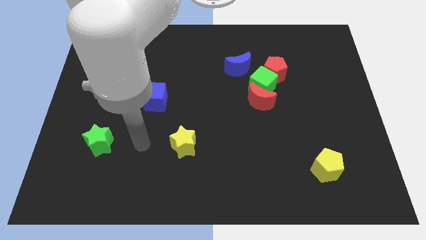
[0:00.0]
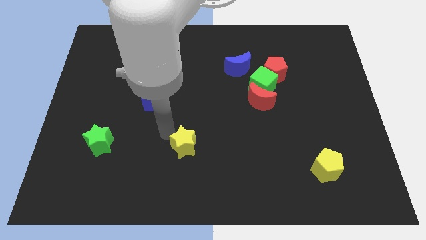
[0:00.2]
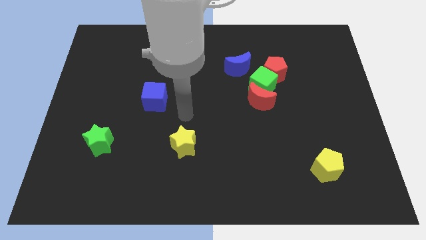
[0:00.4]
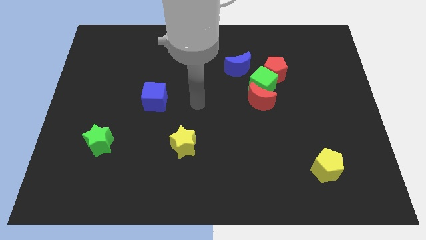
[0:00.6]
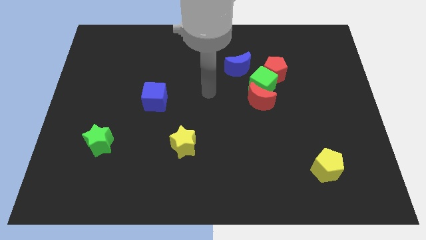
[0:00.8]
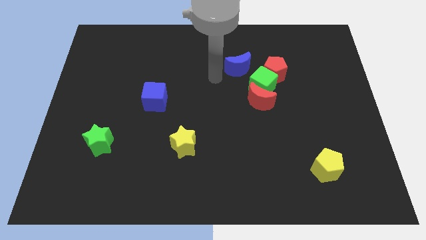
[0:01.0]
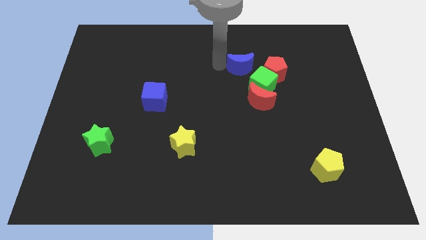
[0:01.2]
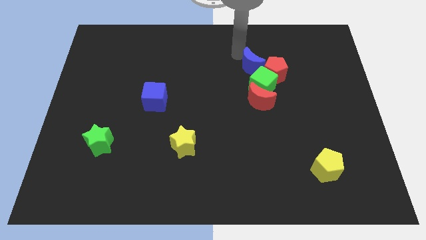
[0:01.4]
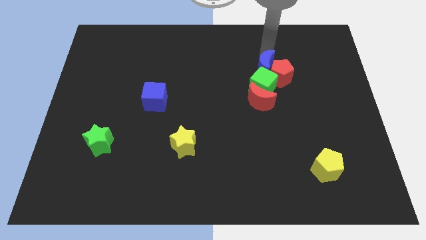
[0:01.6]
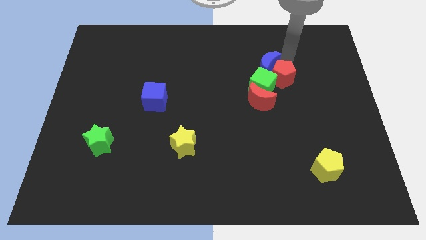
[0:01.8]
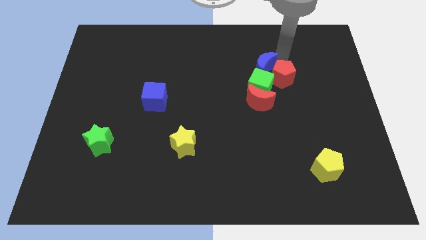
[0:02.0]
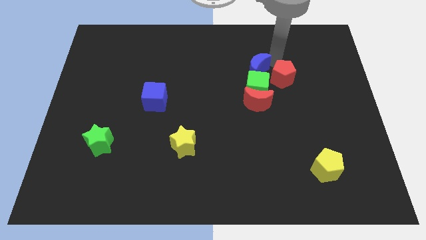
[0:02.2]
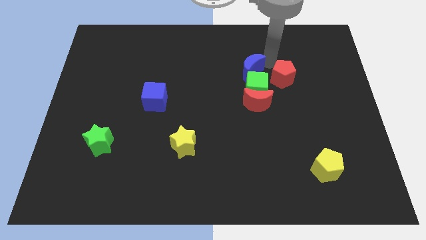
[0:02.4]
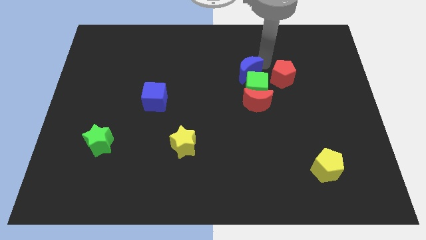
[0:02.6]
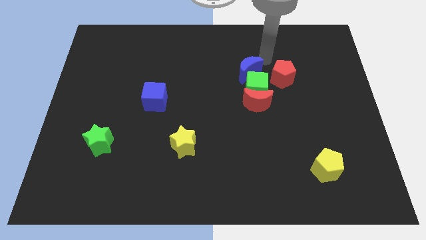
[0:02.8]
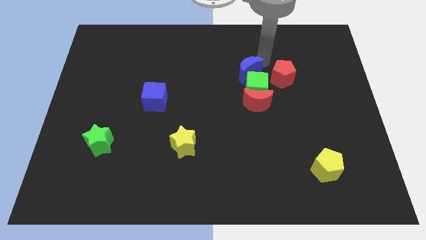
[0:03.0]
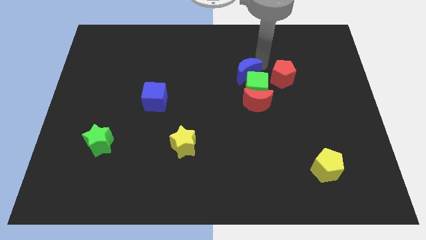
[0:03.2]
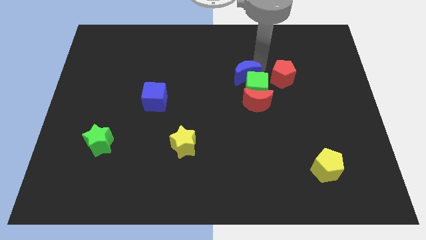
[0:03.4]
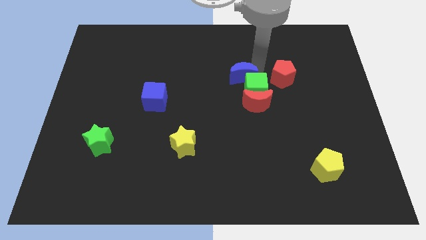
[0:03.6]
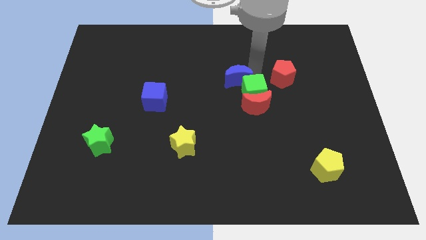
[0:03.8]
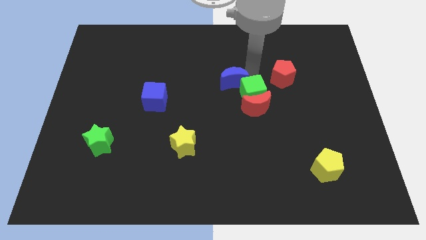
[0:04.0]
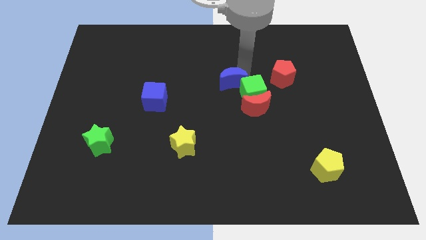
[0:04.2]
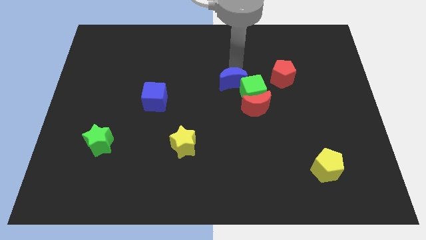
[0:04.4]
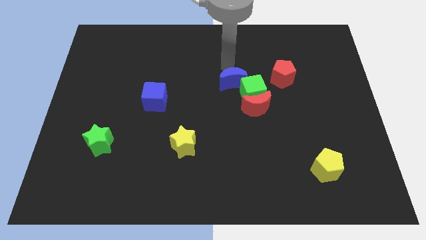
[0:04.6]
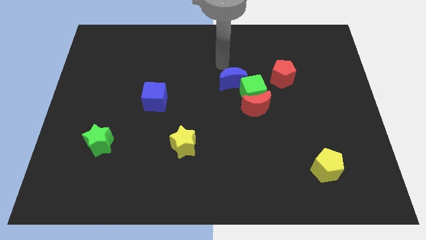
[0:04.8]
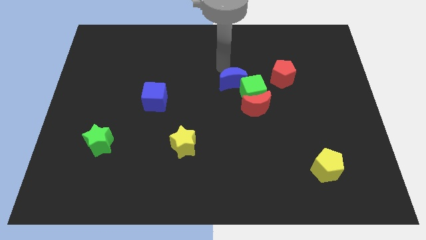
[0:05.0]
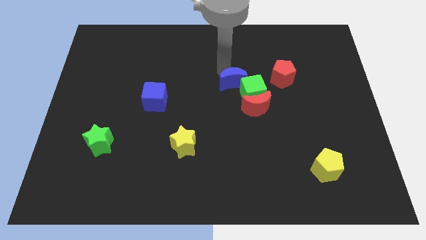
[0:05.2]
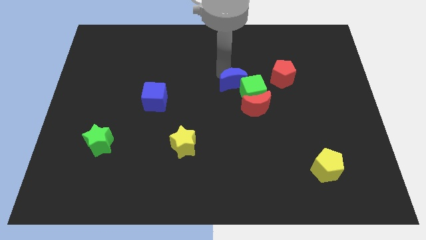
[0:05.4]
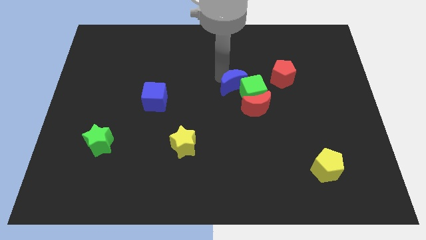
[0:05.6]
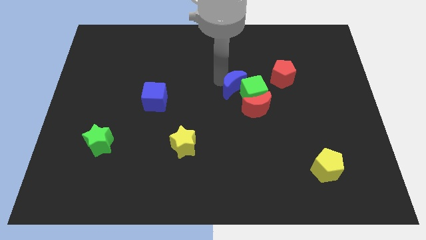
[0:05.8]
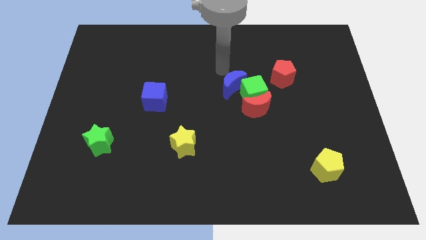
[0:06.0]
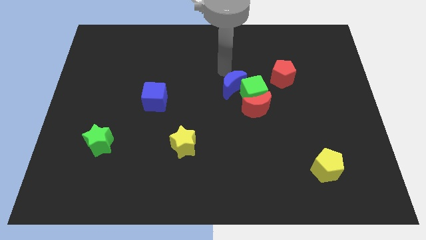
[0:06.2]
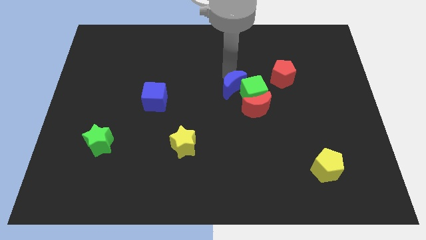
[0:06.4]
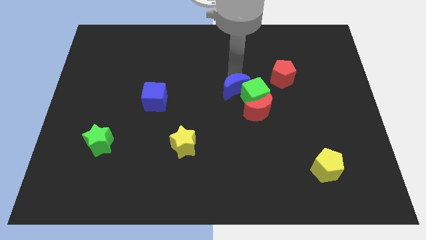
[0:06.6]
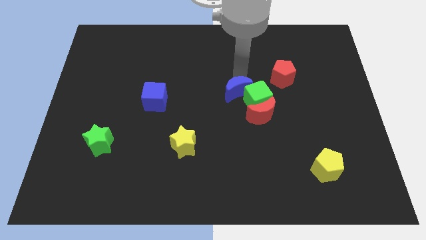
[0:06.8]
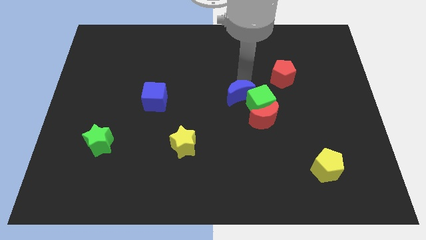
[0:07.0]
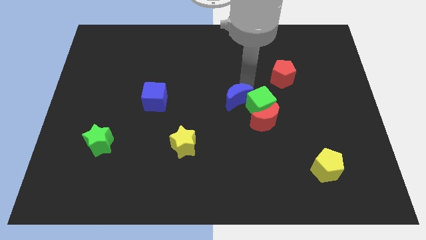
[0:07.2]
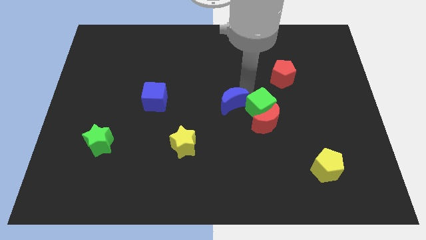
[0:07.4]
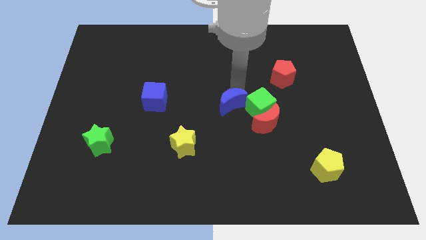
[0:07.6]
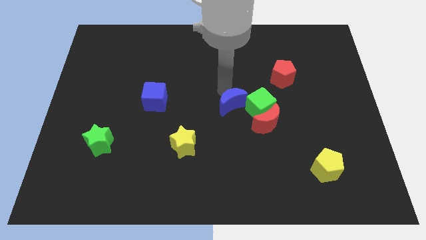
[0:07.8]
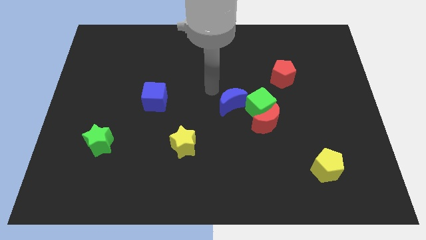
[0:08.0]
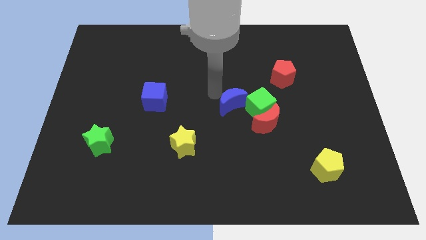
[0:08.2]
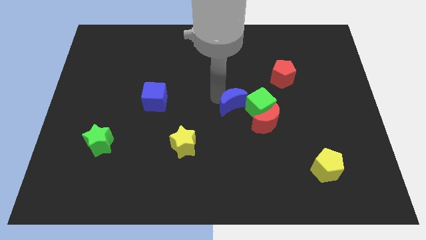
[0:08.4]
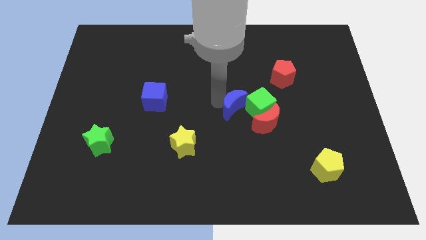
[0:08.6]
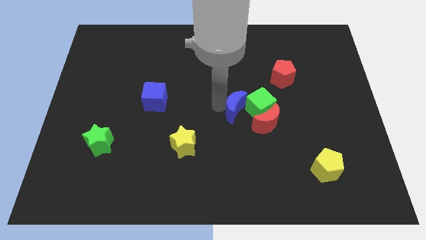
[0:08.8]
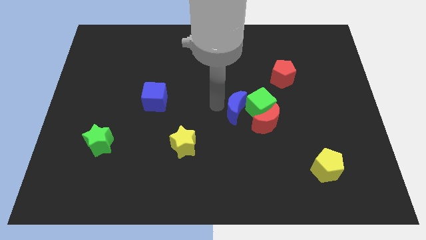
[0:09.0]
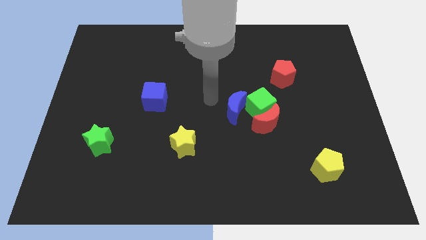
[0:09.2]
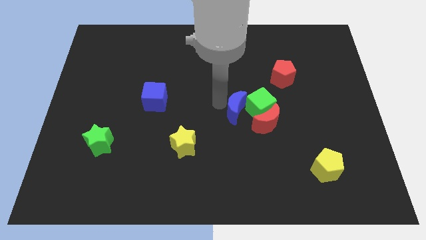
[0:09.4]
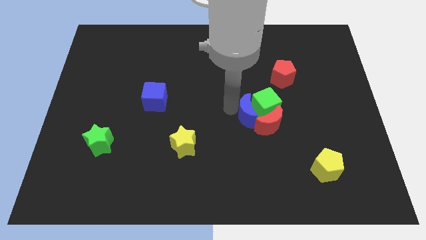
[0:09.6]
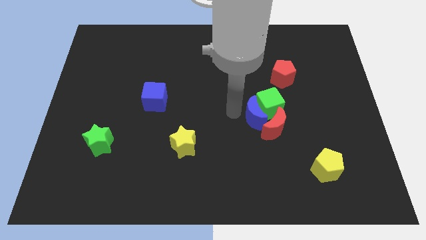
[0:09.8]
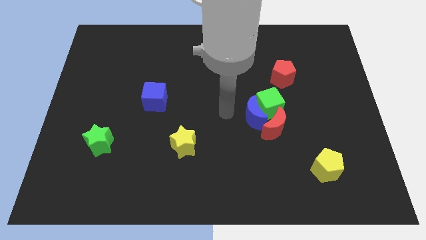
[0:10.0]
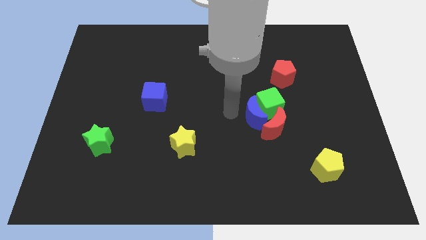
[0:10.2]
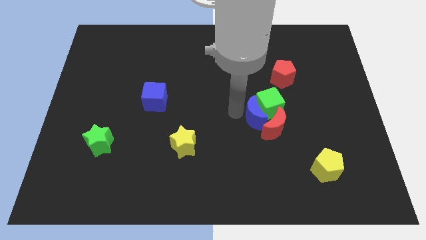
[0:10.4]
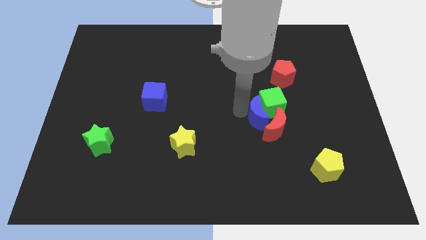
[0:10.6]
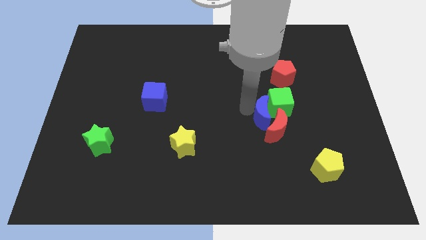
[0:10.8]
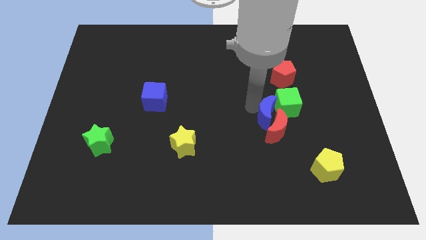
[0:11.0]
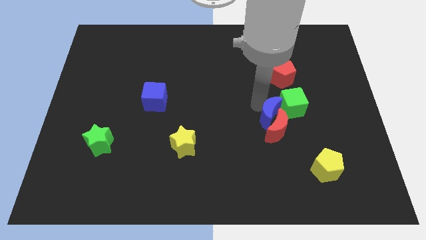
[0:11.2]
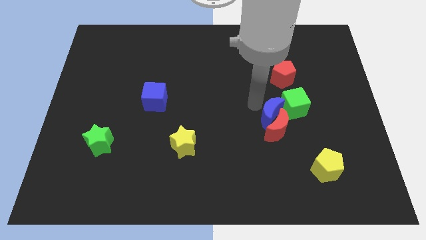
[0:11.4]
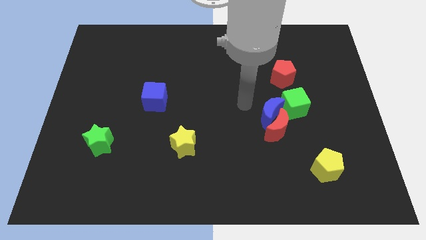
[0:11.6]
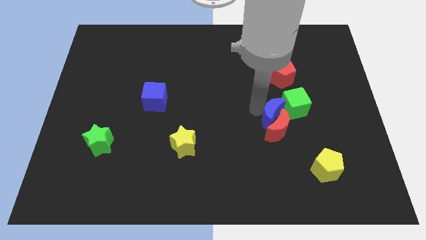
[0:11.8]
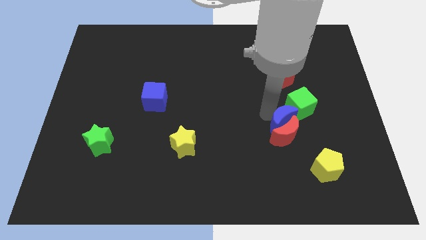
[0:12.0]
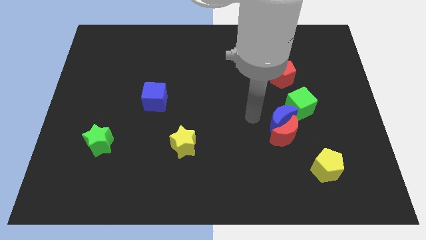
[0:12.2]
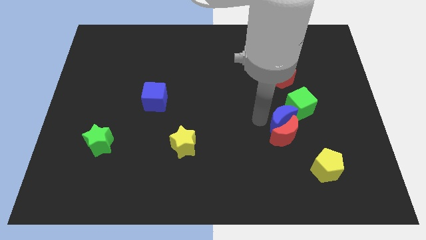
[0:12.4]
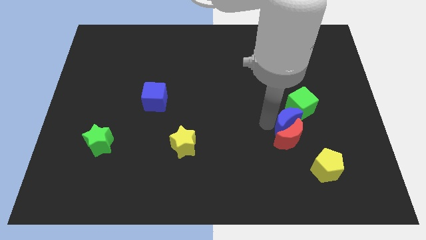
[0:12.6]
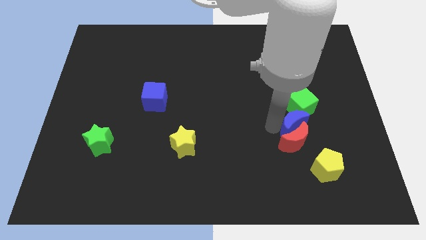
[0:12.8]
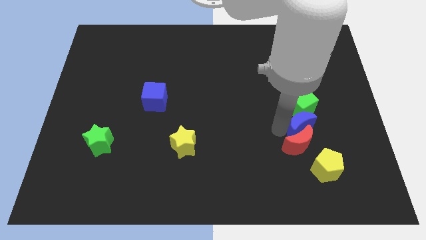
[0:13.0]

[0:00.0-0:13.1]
slide the blue moon above the yellow pentagon
